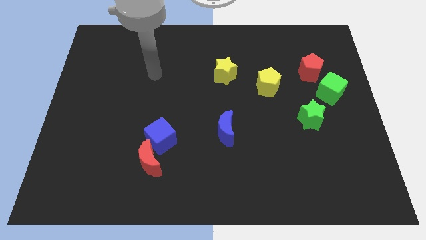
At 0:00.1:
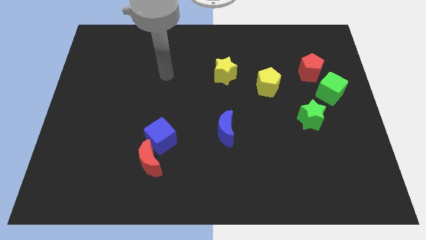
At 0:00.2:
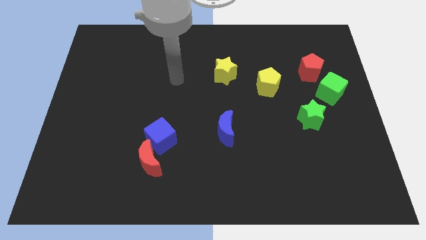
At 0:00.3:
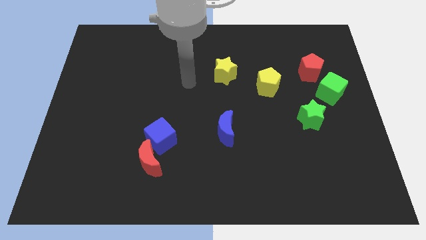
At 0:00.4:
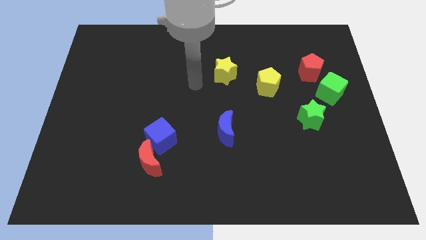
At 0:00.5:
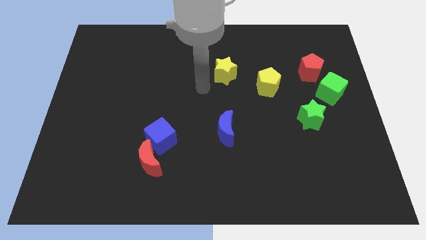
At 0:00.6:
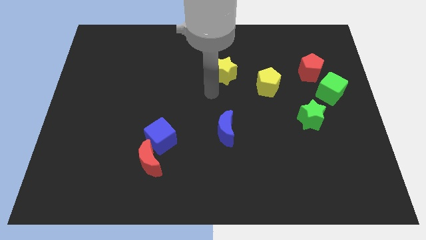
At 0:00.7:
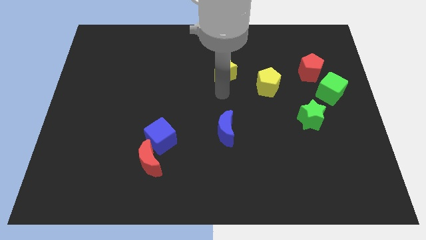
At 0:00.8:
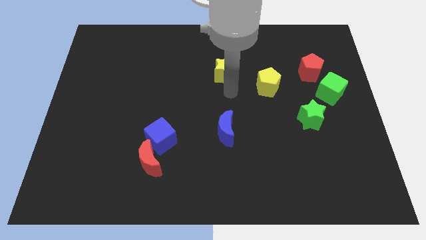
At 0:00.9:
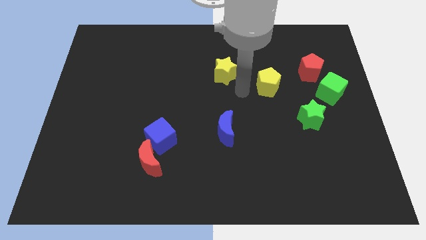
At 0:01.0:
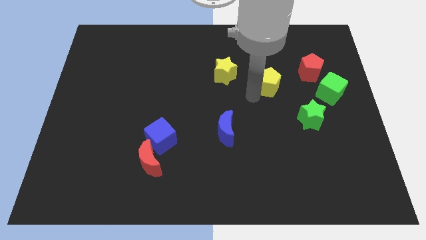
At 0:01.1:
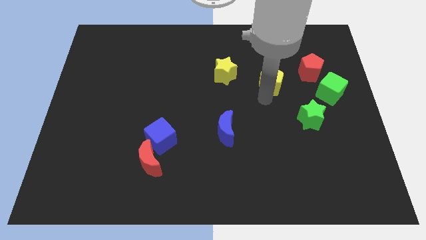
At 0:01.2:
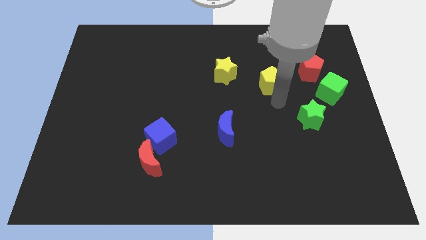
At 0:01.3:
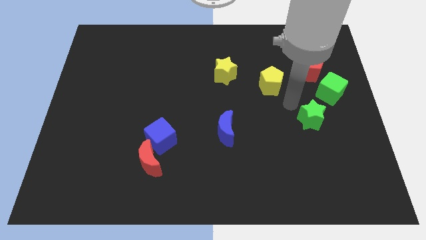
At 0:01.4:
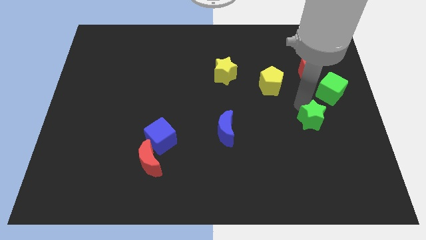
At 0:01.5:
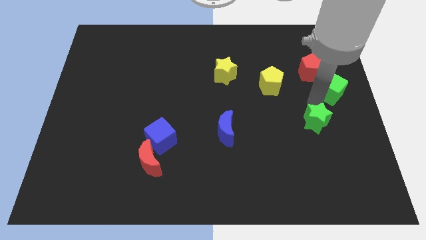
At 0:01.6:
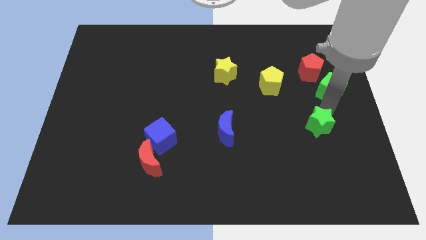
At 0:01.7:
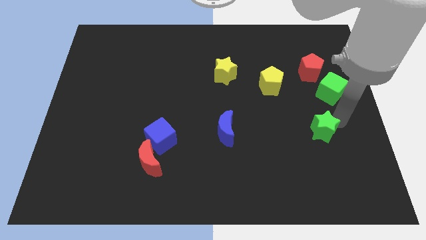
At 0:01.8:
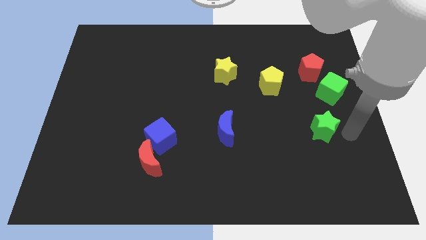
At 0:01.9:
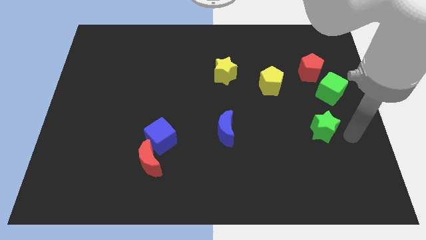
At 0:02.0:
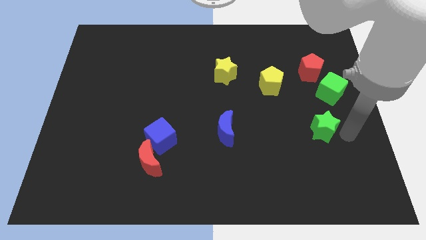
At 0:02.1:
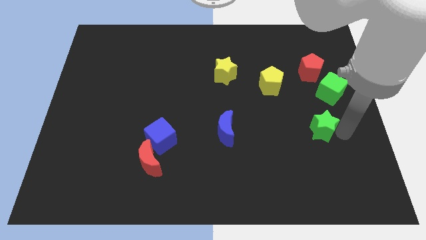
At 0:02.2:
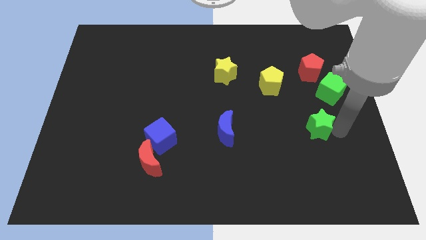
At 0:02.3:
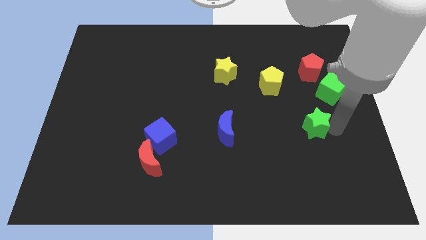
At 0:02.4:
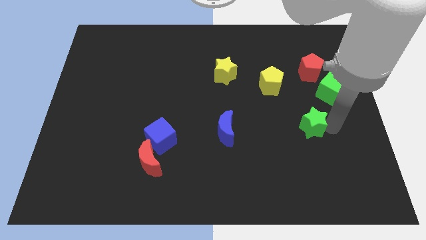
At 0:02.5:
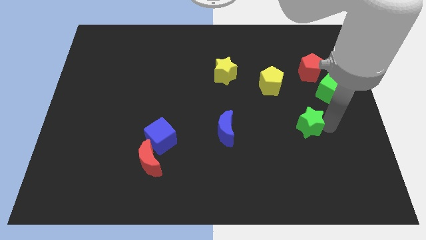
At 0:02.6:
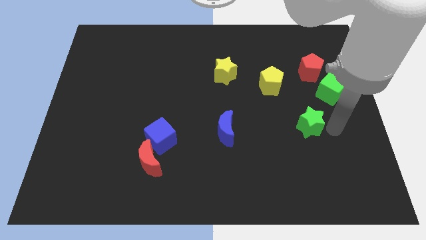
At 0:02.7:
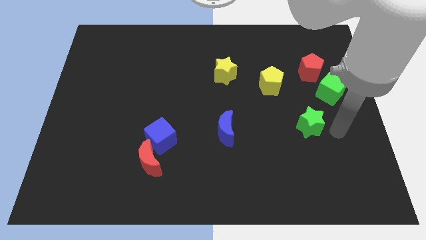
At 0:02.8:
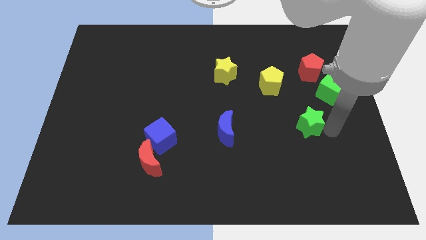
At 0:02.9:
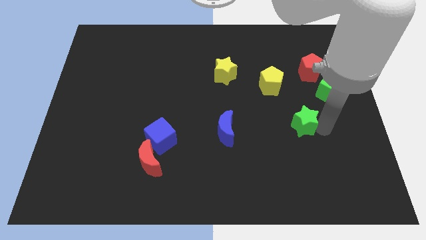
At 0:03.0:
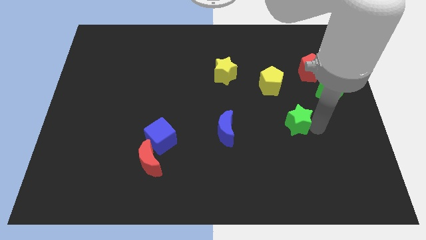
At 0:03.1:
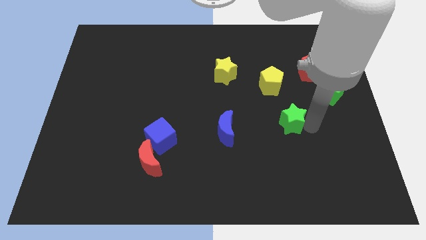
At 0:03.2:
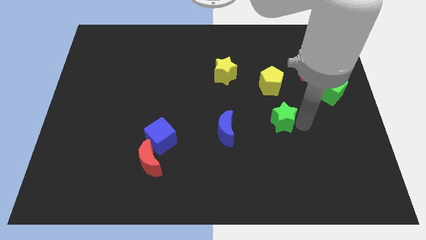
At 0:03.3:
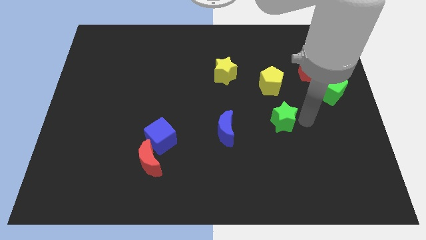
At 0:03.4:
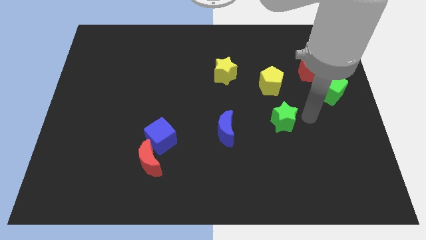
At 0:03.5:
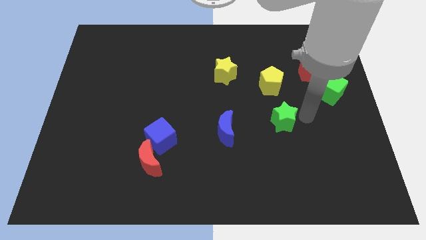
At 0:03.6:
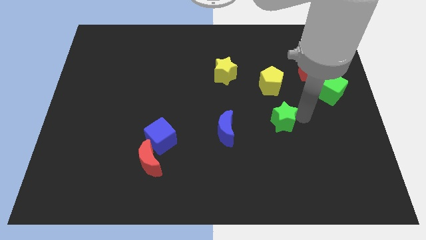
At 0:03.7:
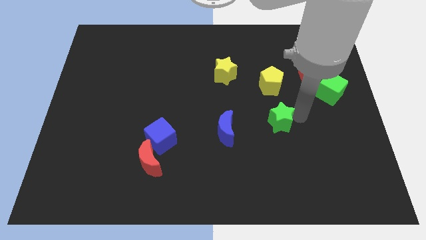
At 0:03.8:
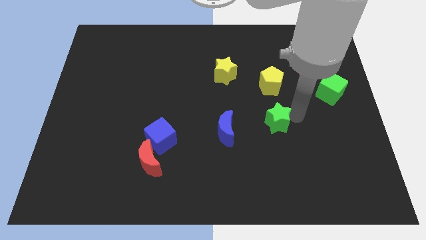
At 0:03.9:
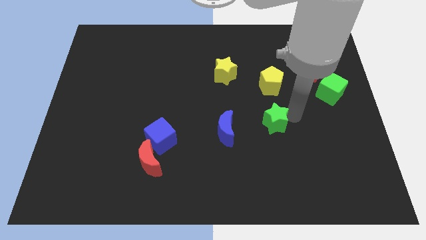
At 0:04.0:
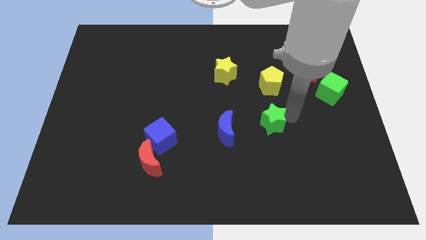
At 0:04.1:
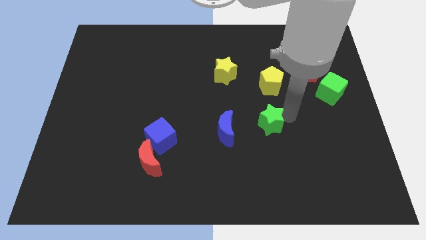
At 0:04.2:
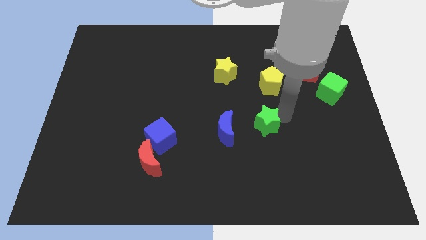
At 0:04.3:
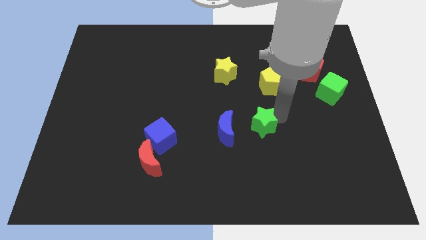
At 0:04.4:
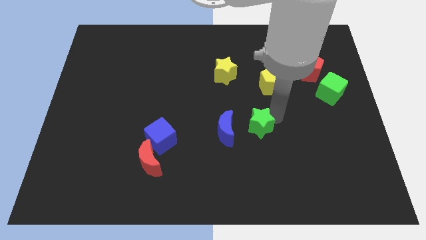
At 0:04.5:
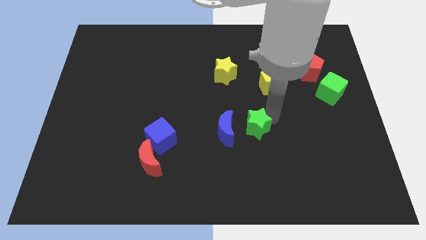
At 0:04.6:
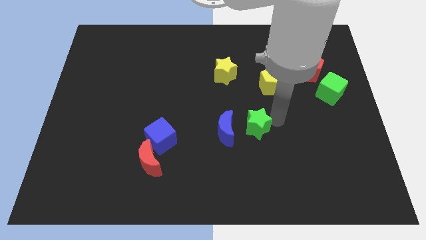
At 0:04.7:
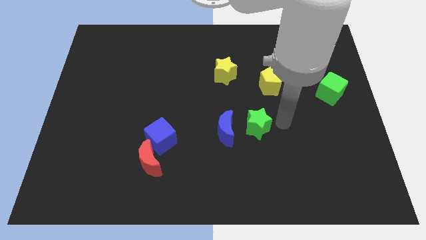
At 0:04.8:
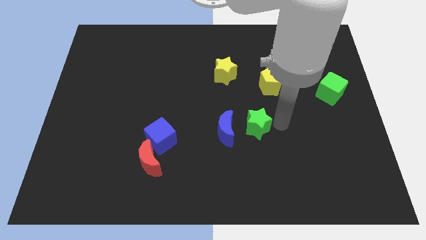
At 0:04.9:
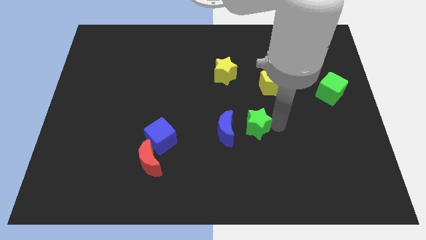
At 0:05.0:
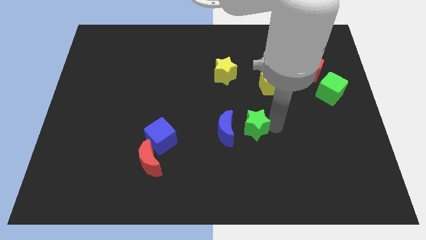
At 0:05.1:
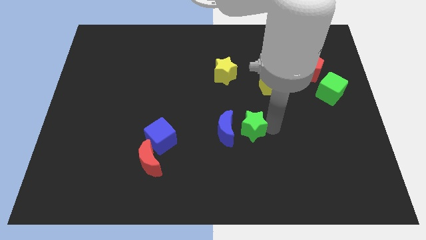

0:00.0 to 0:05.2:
push the green star to the blue moon

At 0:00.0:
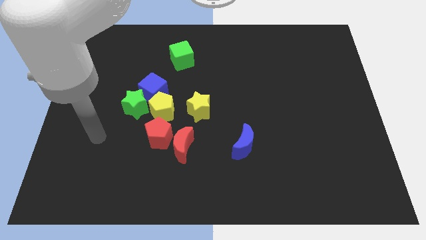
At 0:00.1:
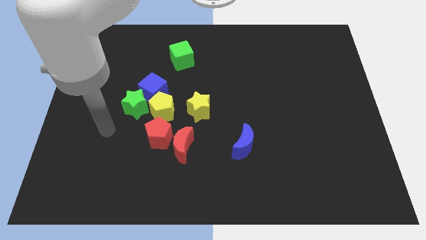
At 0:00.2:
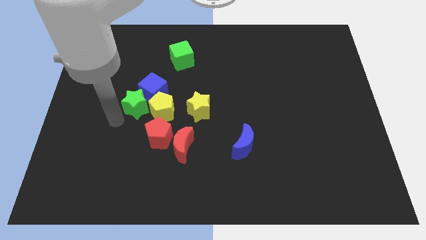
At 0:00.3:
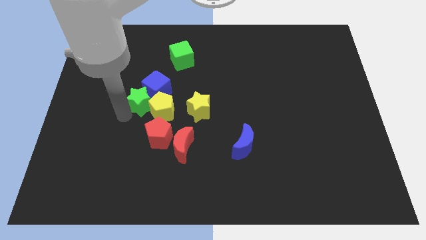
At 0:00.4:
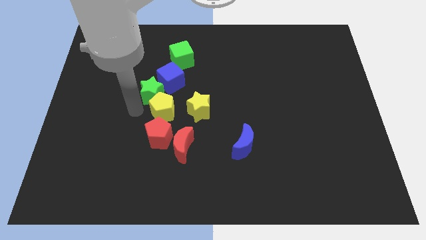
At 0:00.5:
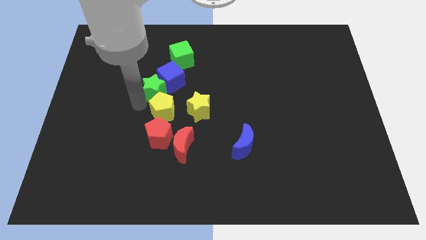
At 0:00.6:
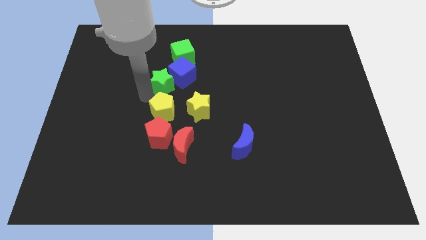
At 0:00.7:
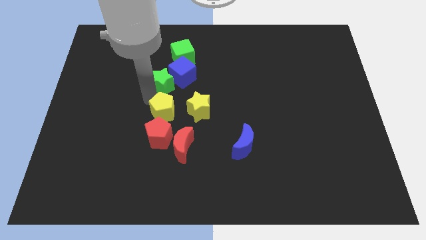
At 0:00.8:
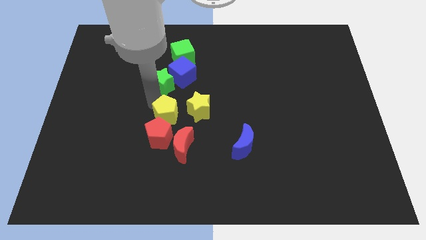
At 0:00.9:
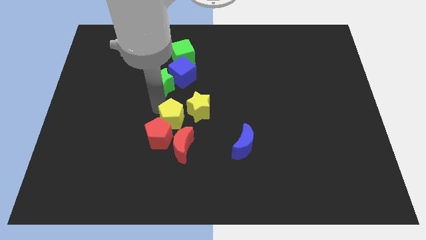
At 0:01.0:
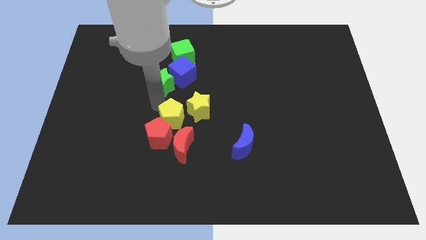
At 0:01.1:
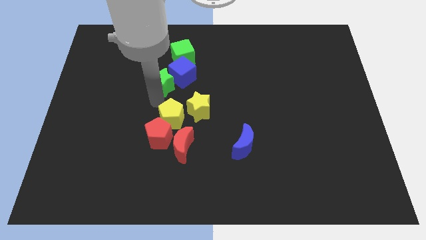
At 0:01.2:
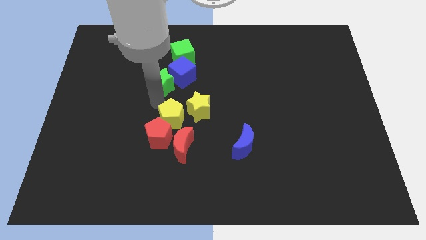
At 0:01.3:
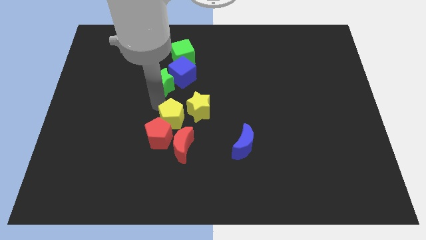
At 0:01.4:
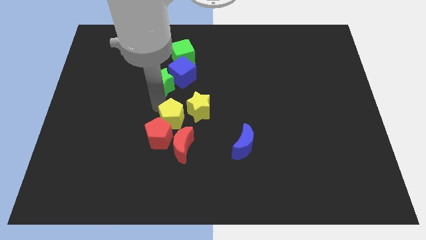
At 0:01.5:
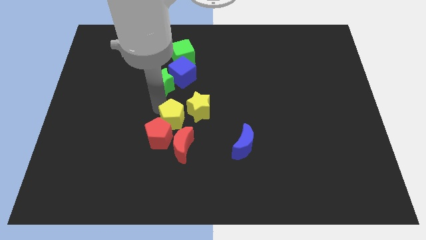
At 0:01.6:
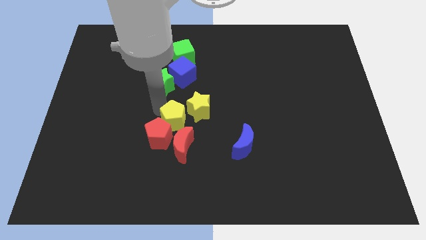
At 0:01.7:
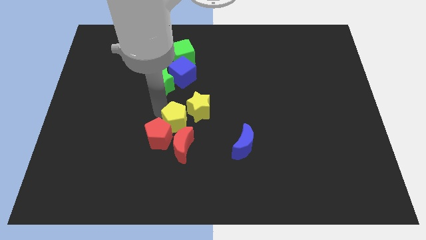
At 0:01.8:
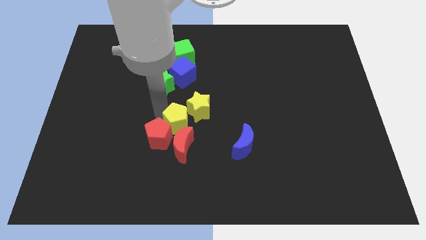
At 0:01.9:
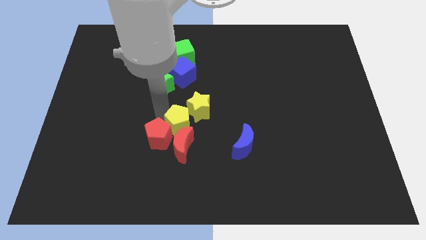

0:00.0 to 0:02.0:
put the yellow pentagon next to the red moon

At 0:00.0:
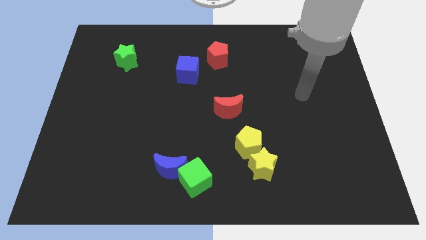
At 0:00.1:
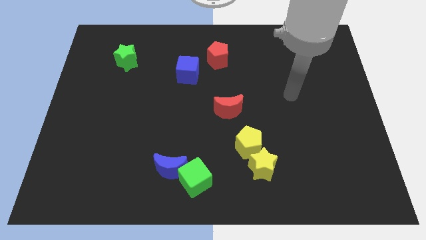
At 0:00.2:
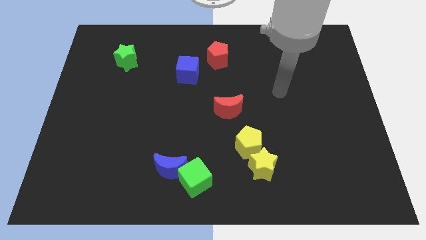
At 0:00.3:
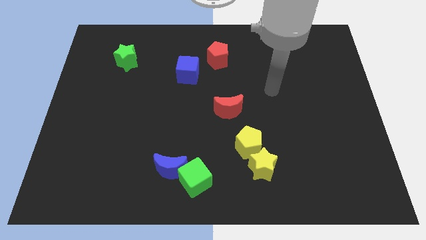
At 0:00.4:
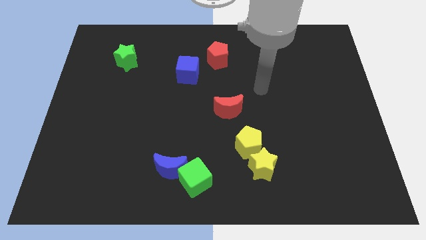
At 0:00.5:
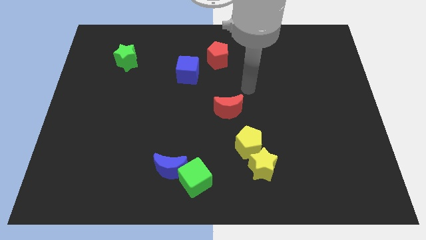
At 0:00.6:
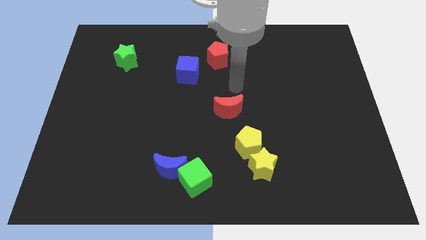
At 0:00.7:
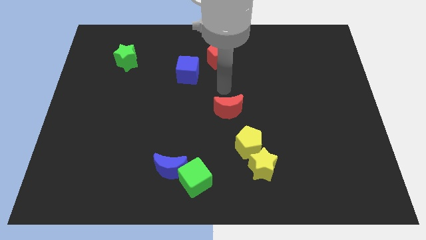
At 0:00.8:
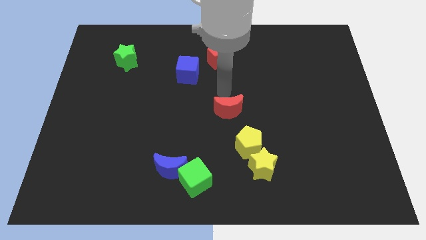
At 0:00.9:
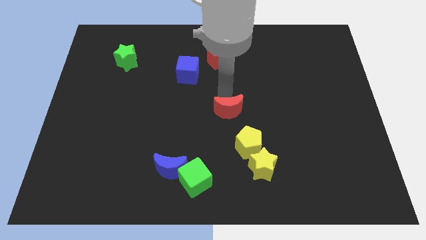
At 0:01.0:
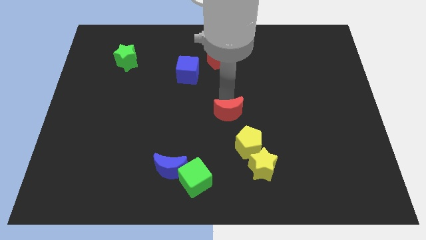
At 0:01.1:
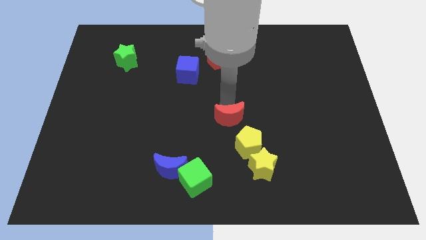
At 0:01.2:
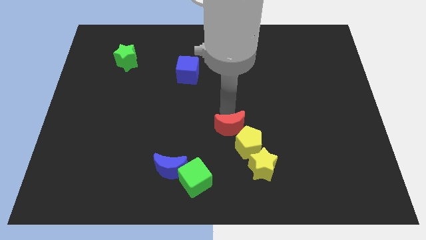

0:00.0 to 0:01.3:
move the red moon close to the yellow pentagon

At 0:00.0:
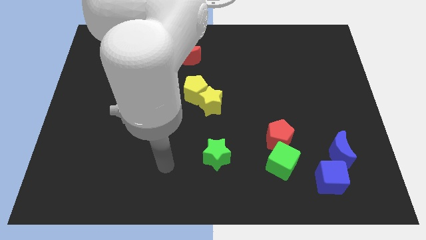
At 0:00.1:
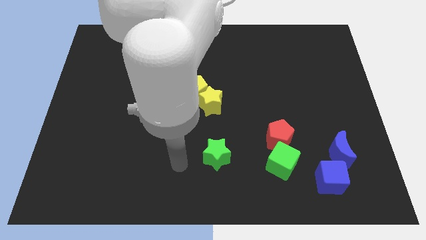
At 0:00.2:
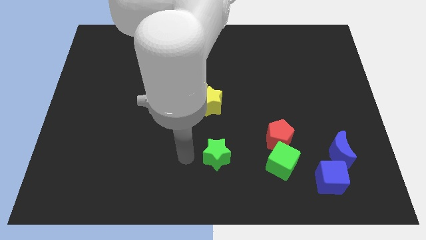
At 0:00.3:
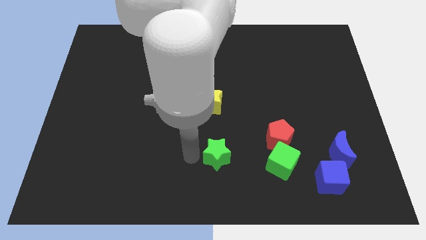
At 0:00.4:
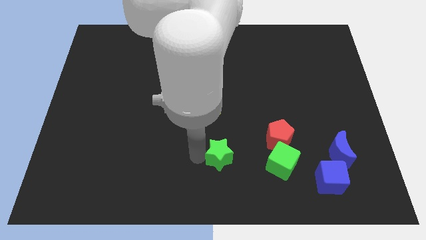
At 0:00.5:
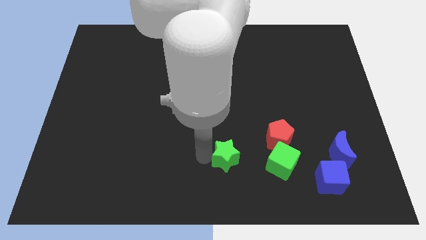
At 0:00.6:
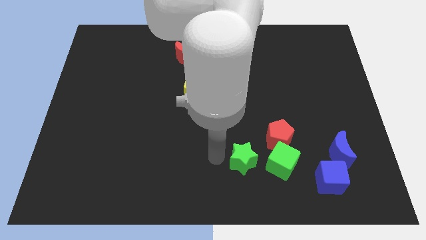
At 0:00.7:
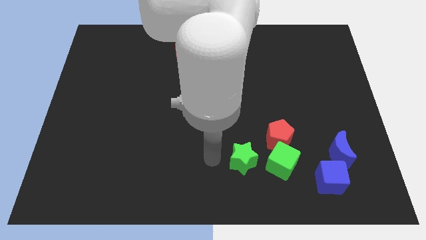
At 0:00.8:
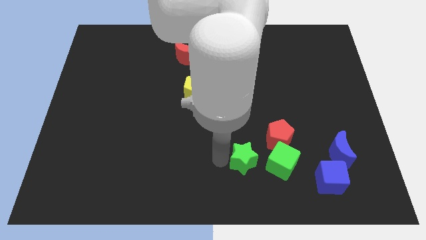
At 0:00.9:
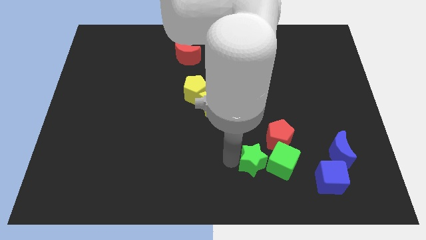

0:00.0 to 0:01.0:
push the green star to the green cube
